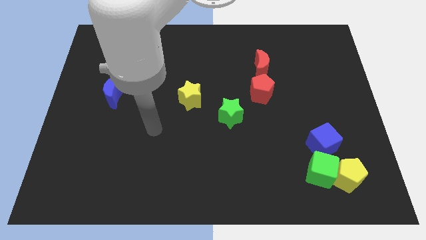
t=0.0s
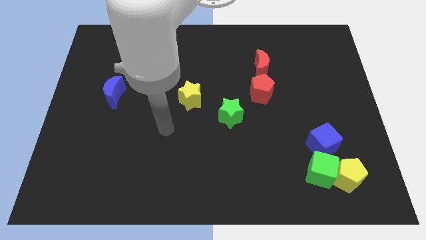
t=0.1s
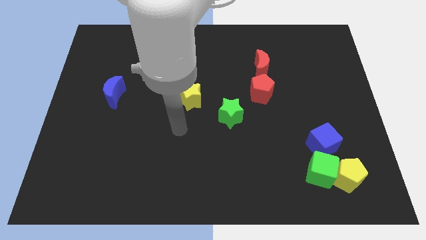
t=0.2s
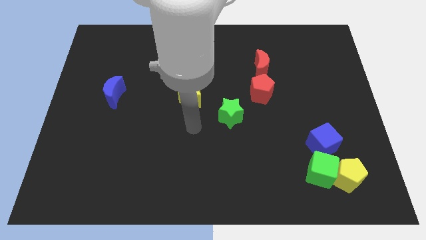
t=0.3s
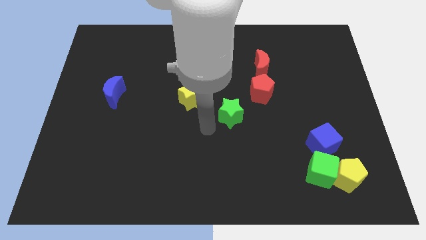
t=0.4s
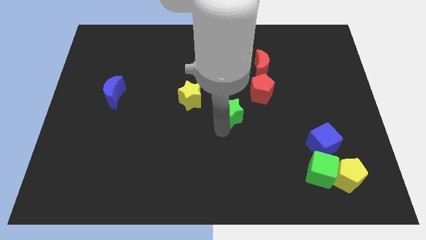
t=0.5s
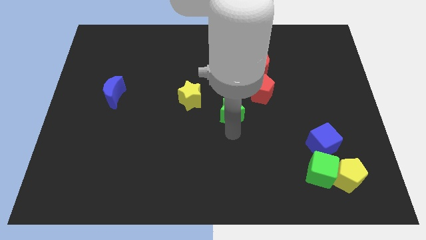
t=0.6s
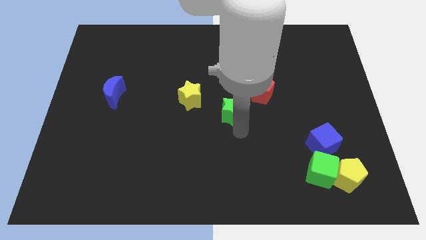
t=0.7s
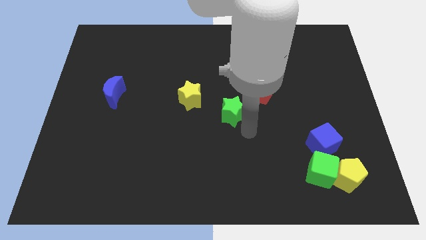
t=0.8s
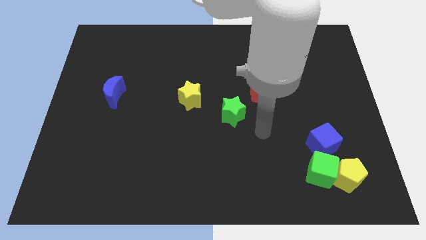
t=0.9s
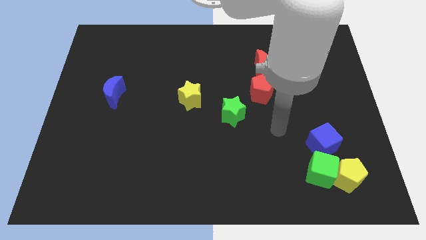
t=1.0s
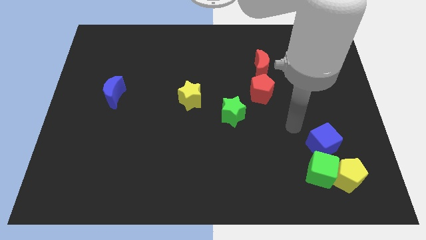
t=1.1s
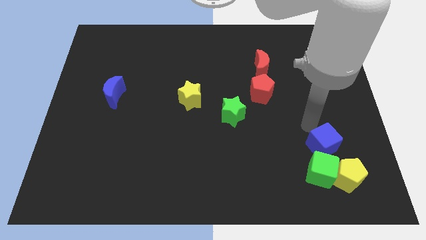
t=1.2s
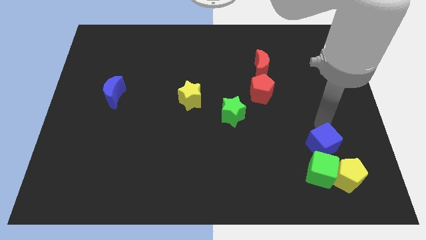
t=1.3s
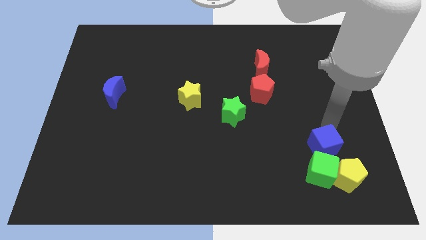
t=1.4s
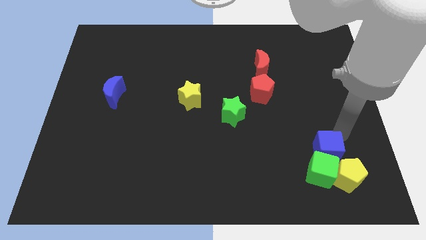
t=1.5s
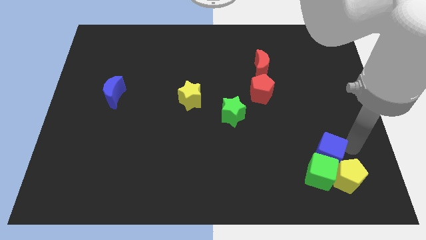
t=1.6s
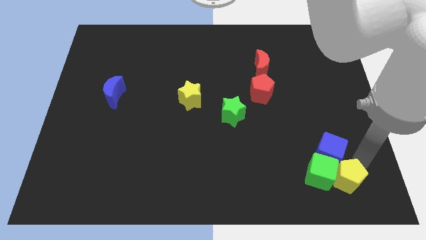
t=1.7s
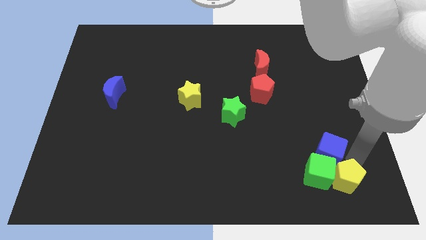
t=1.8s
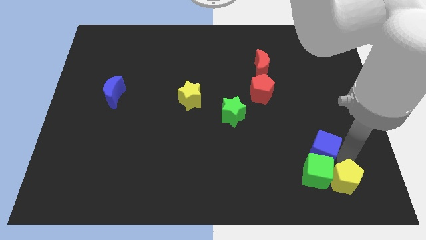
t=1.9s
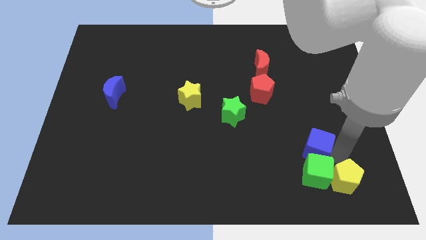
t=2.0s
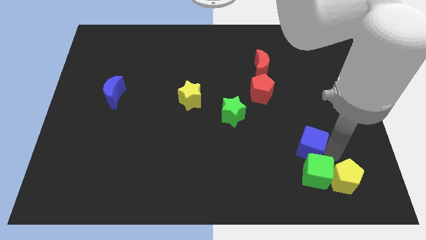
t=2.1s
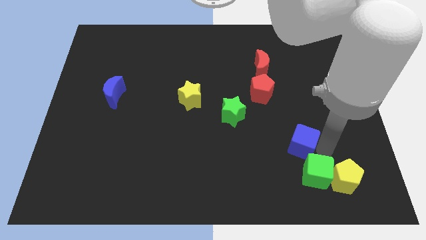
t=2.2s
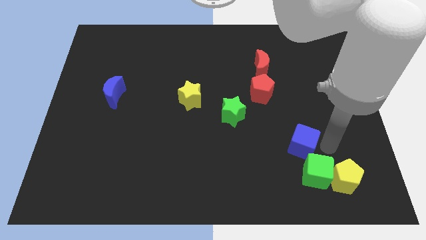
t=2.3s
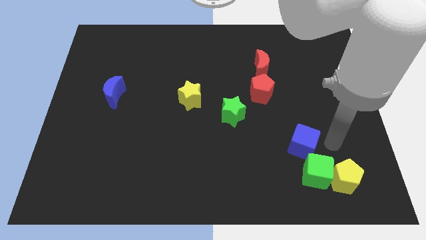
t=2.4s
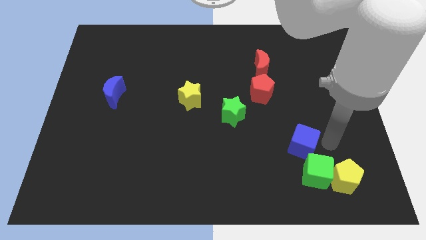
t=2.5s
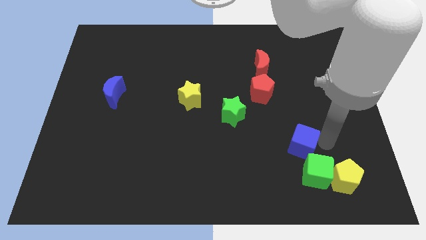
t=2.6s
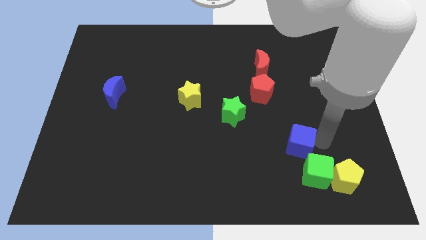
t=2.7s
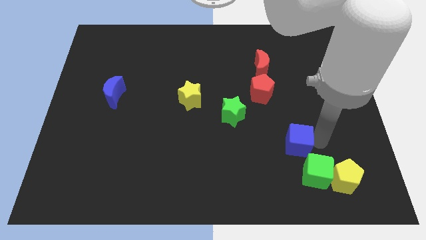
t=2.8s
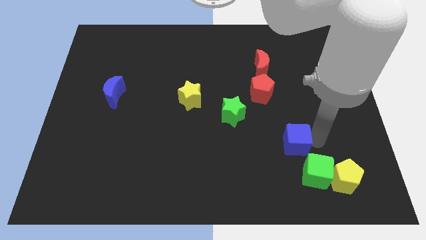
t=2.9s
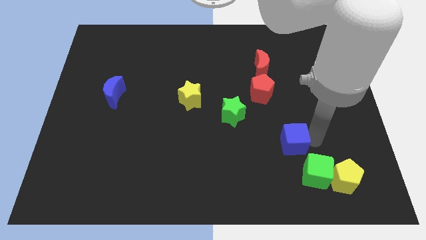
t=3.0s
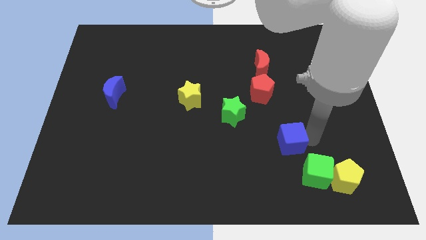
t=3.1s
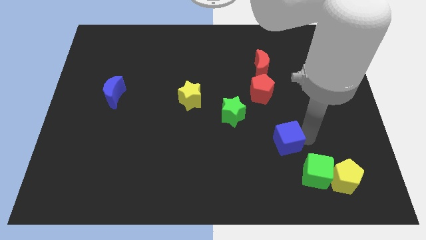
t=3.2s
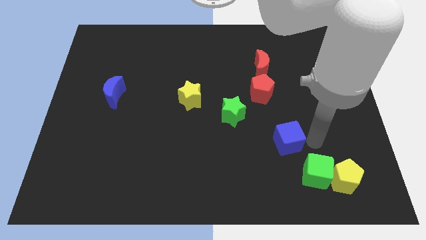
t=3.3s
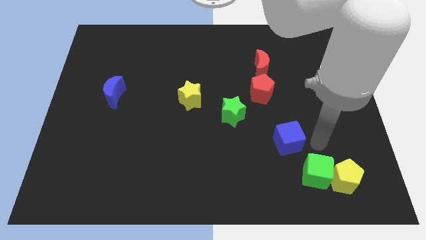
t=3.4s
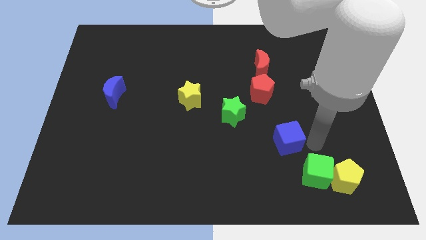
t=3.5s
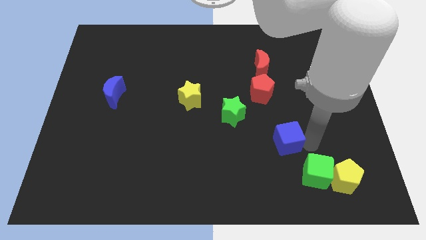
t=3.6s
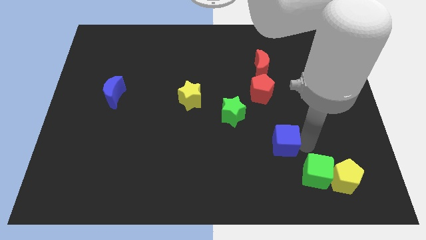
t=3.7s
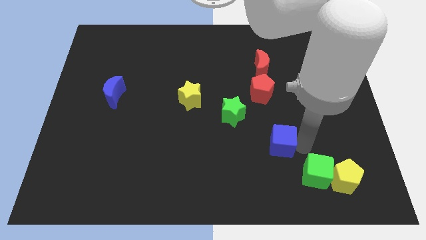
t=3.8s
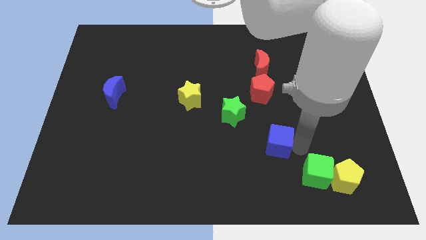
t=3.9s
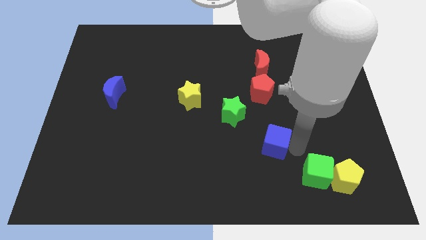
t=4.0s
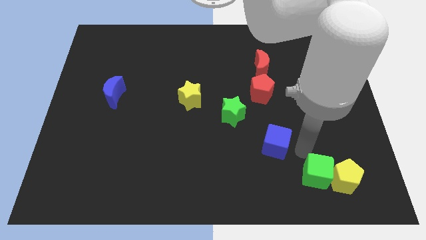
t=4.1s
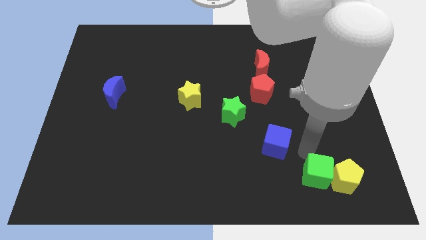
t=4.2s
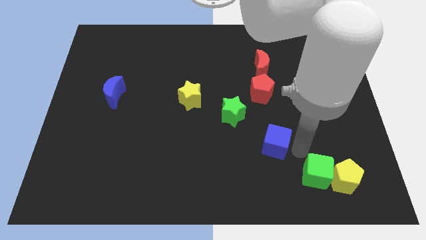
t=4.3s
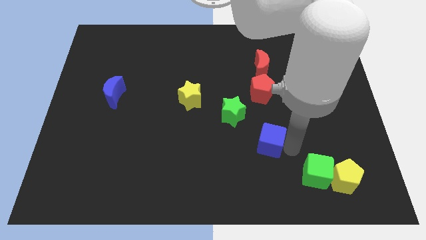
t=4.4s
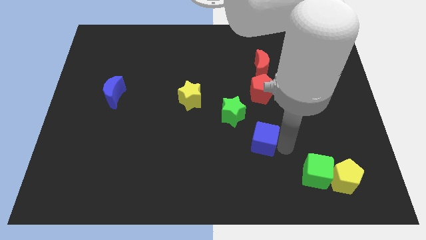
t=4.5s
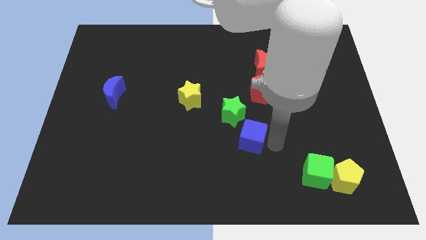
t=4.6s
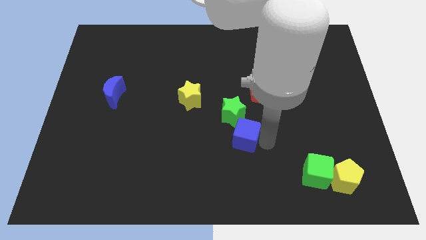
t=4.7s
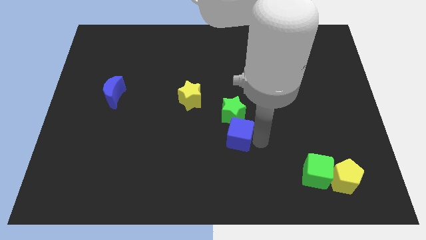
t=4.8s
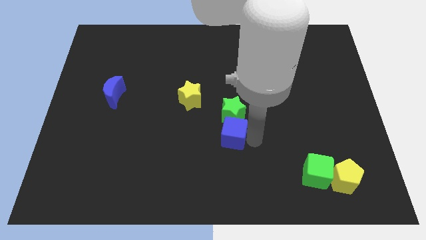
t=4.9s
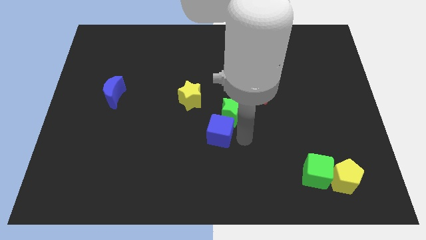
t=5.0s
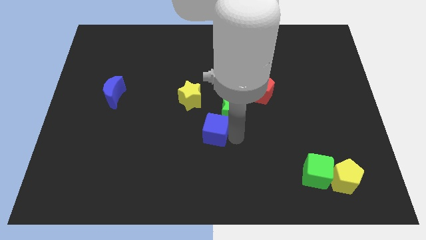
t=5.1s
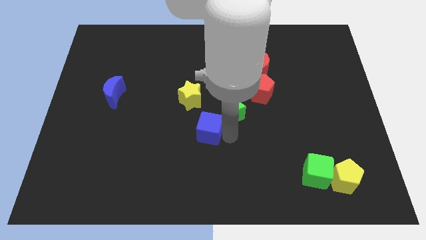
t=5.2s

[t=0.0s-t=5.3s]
move the blue cube just left of the green star

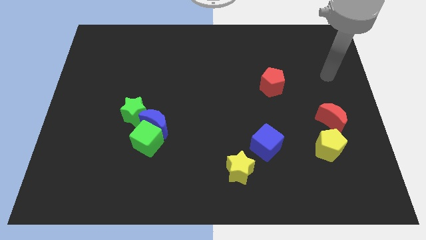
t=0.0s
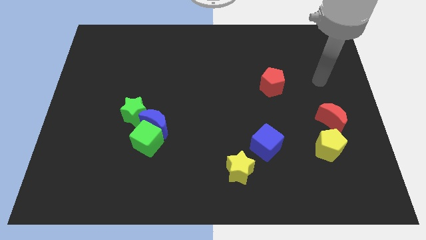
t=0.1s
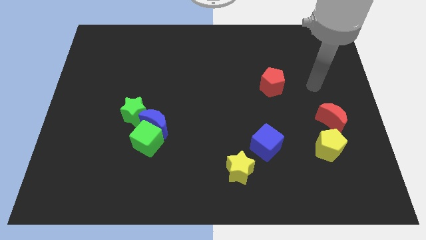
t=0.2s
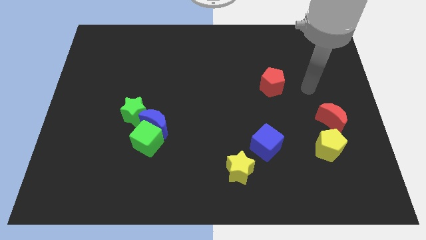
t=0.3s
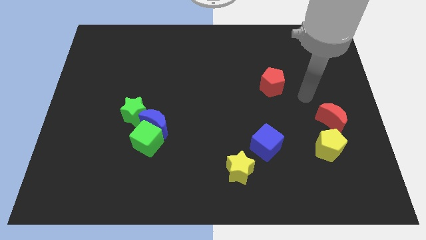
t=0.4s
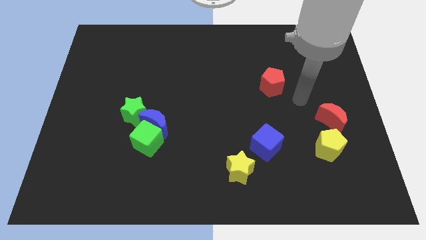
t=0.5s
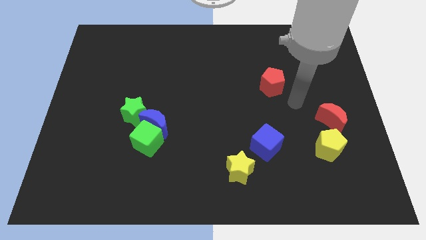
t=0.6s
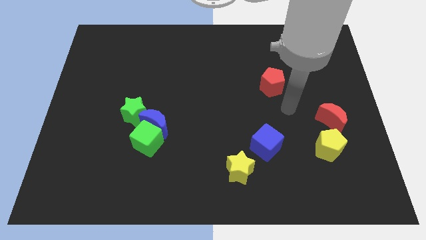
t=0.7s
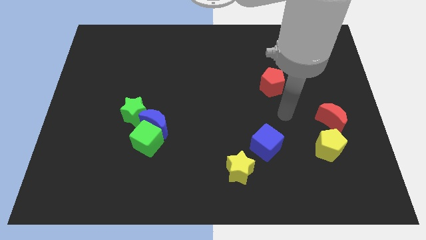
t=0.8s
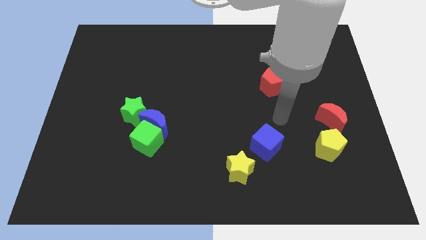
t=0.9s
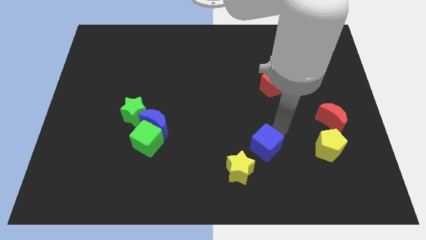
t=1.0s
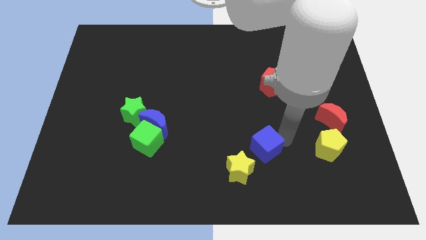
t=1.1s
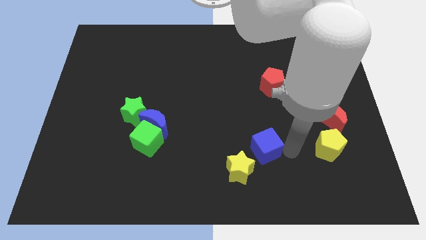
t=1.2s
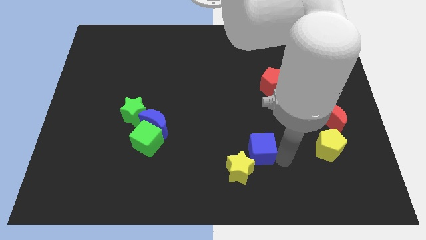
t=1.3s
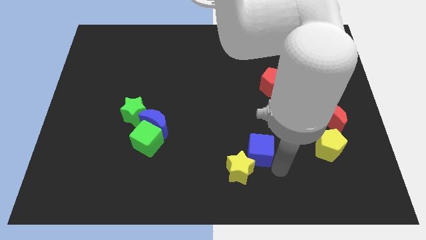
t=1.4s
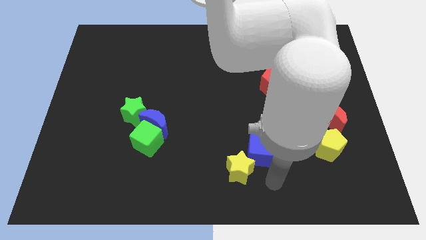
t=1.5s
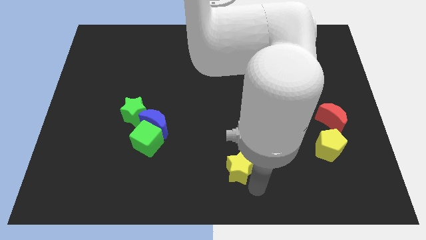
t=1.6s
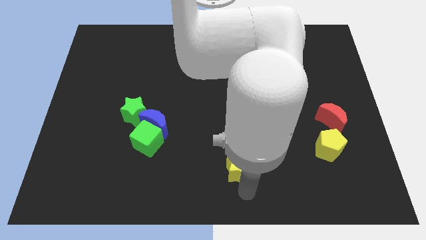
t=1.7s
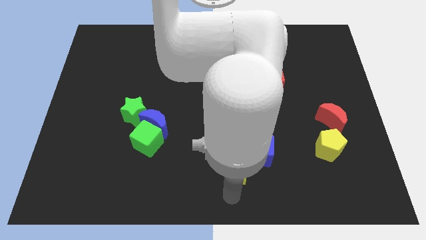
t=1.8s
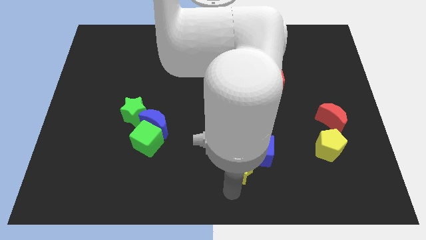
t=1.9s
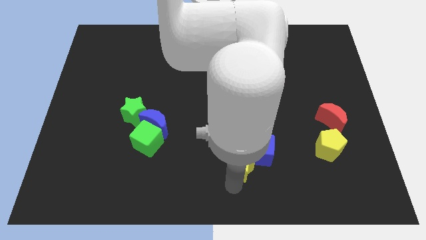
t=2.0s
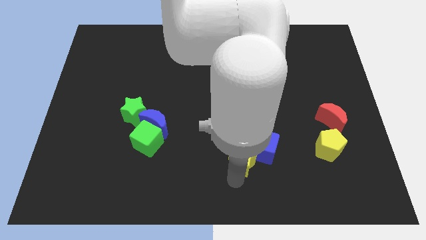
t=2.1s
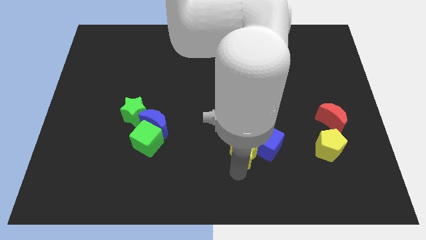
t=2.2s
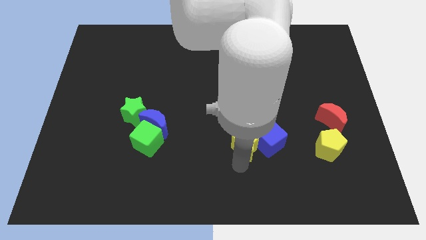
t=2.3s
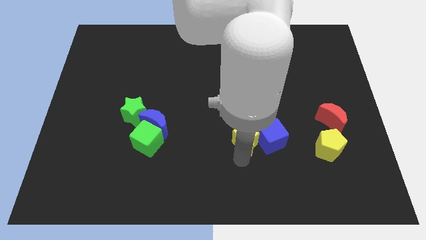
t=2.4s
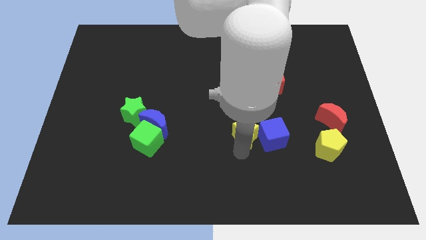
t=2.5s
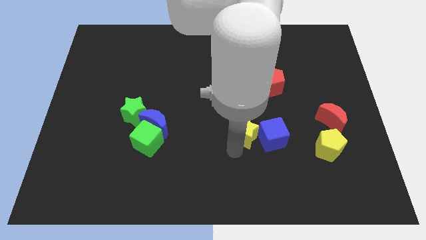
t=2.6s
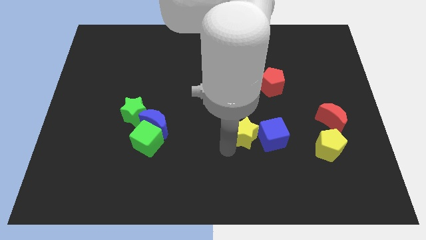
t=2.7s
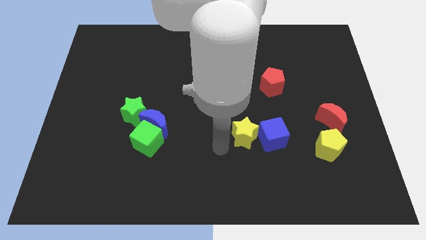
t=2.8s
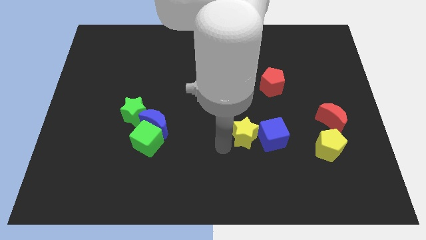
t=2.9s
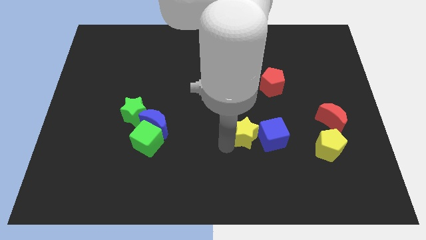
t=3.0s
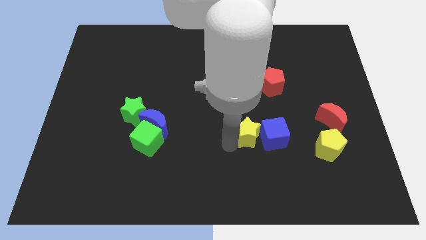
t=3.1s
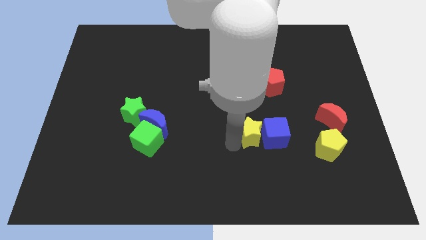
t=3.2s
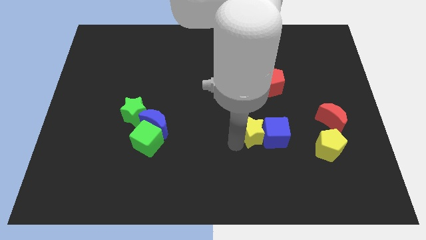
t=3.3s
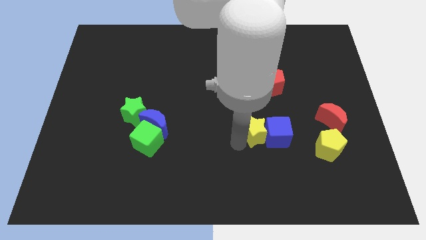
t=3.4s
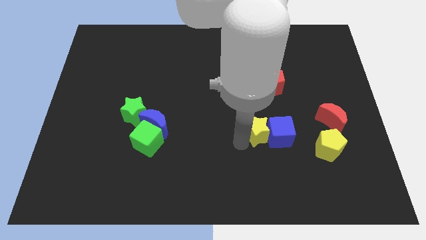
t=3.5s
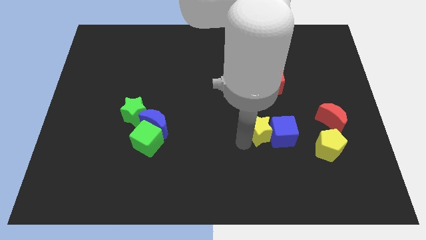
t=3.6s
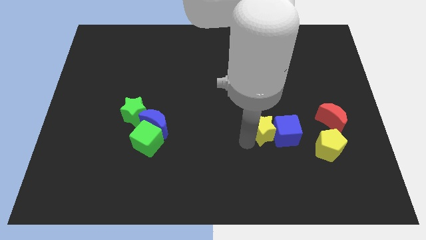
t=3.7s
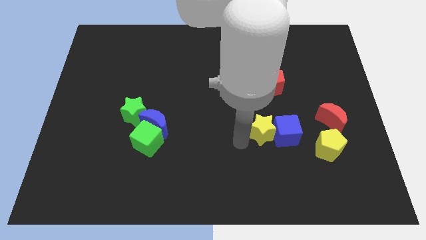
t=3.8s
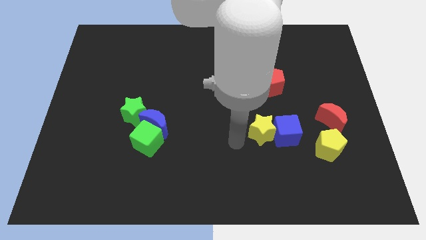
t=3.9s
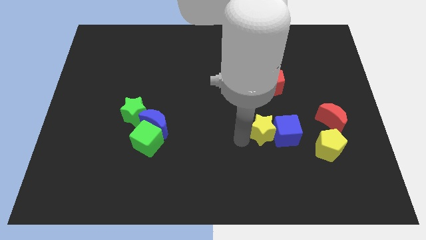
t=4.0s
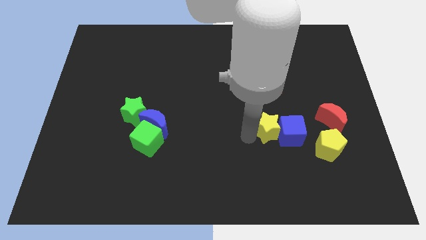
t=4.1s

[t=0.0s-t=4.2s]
push the yellow star left of the red moon
